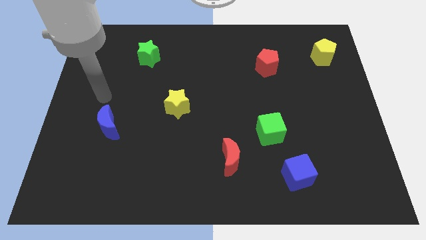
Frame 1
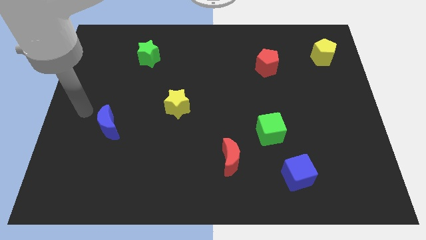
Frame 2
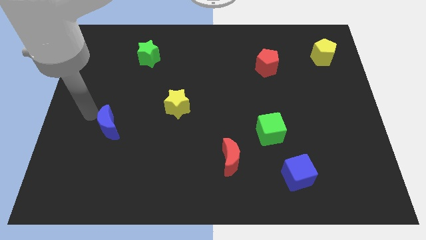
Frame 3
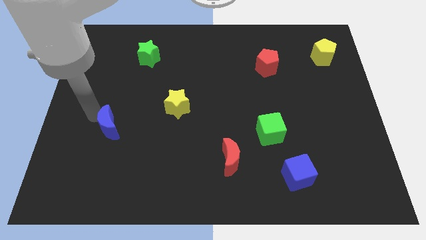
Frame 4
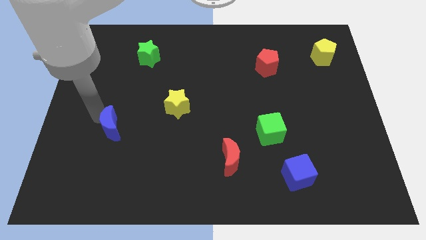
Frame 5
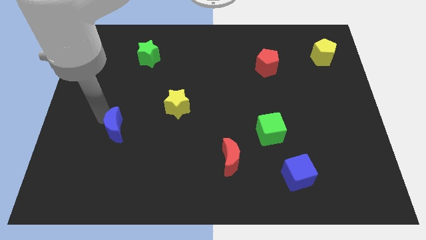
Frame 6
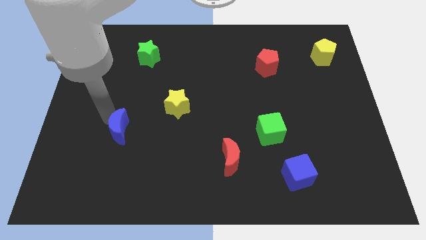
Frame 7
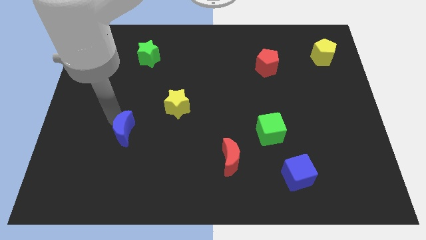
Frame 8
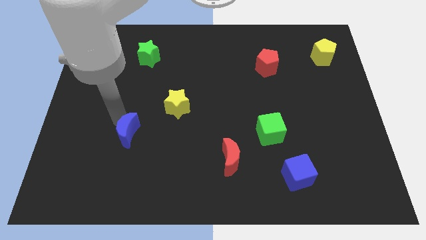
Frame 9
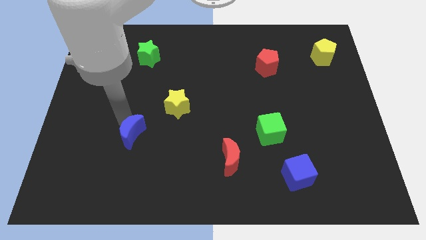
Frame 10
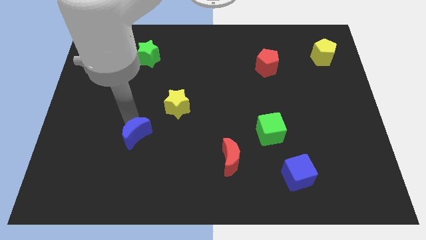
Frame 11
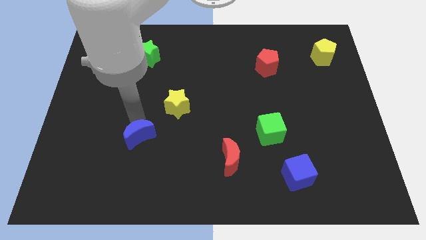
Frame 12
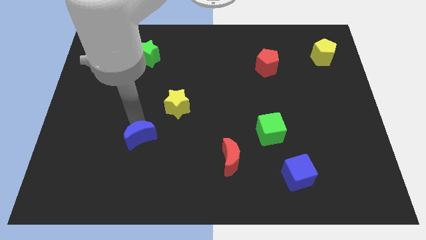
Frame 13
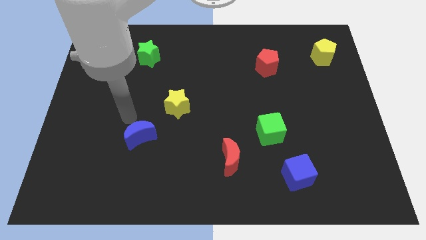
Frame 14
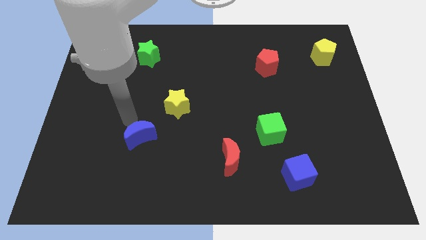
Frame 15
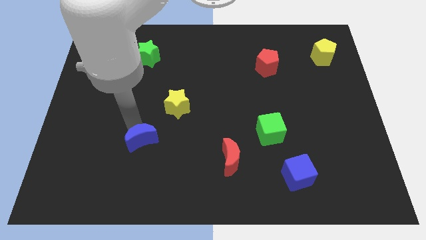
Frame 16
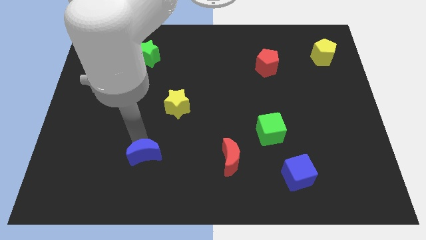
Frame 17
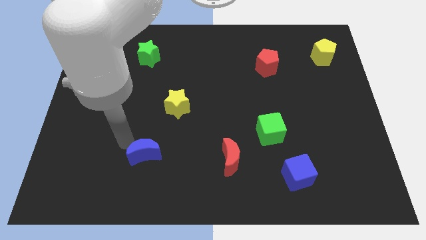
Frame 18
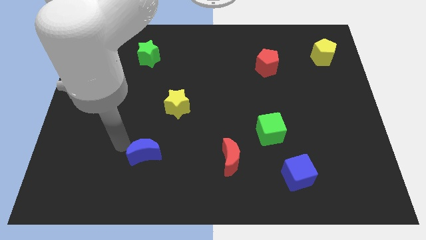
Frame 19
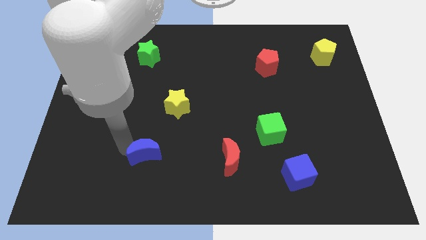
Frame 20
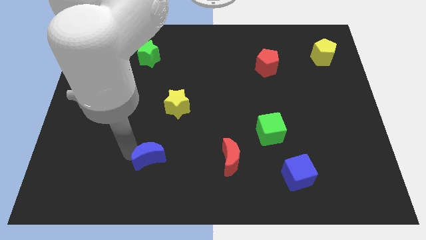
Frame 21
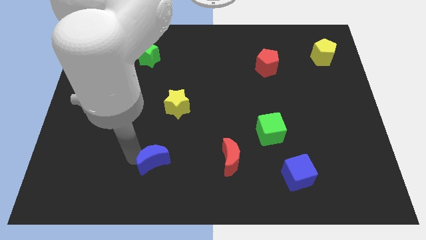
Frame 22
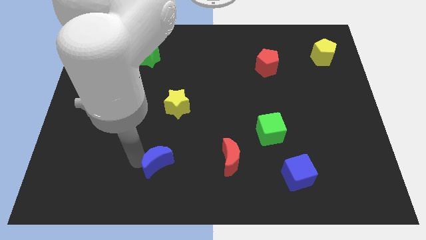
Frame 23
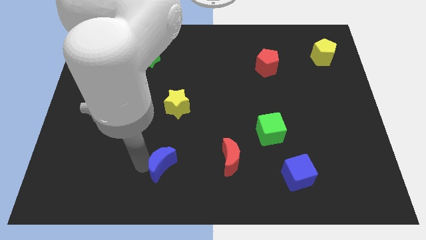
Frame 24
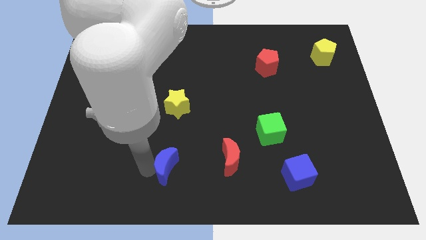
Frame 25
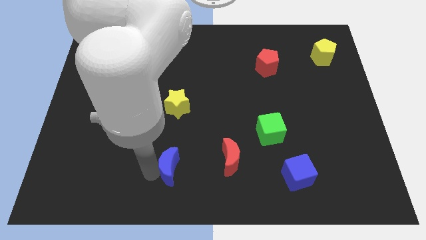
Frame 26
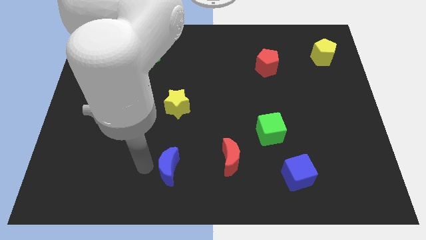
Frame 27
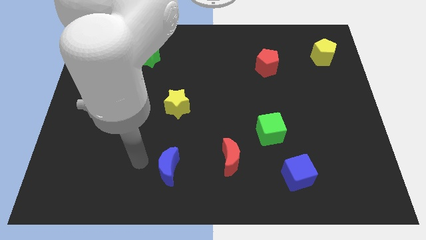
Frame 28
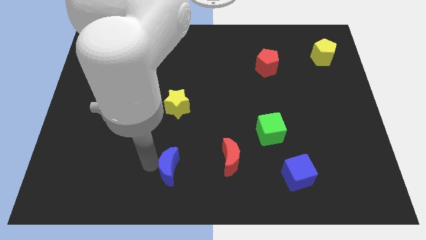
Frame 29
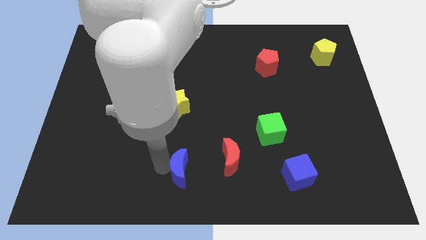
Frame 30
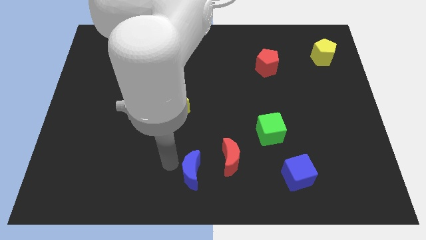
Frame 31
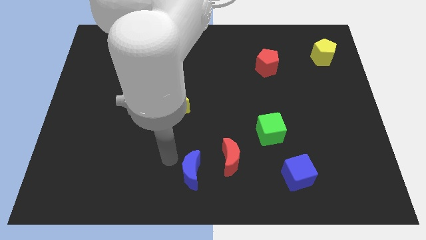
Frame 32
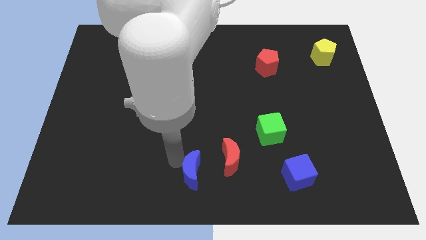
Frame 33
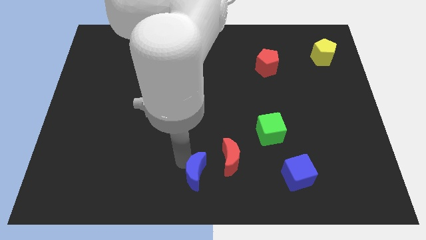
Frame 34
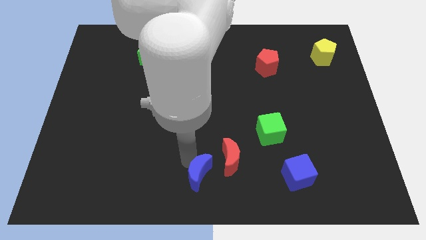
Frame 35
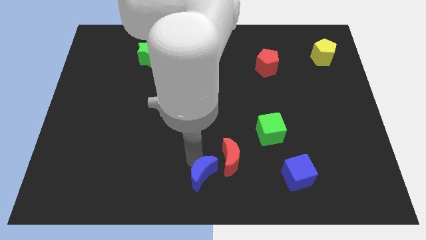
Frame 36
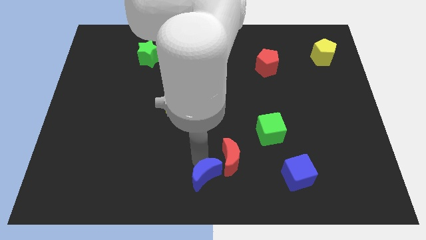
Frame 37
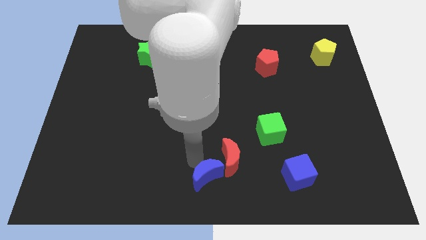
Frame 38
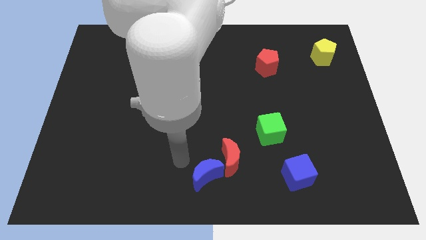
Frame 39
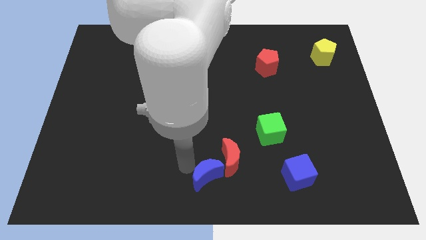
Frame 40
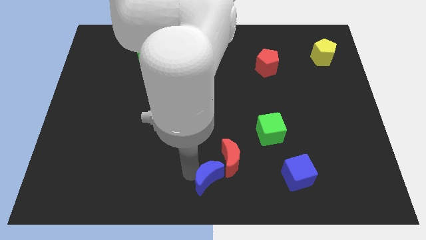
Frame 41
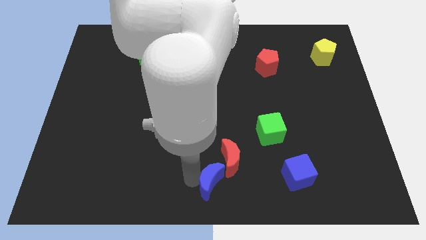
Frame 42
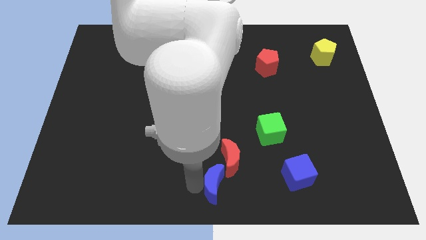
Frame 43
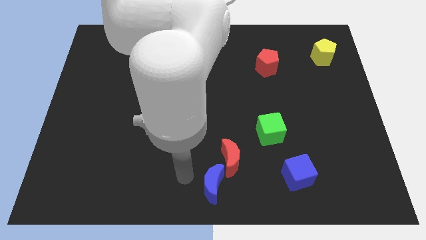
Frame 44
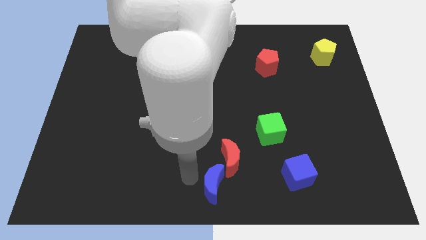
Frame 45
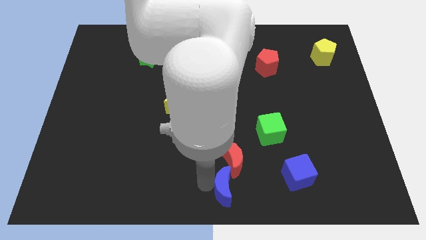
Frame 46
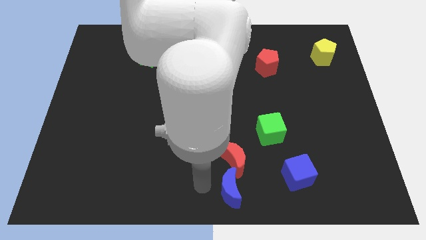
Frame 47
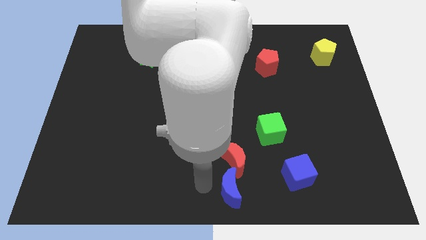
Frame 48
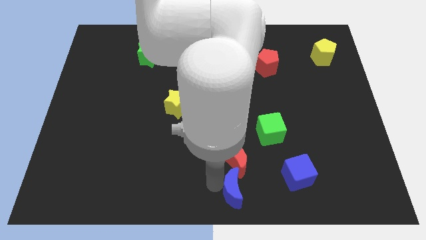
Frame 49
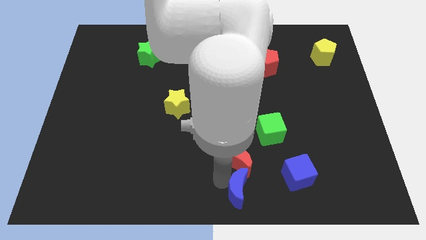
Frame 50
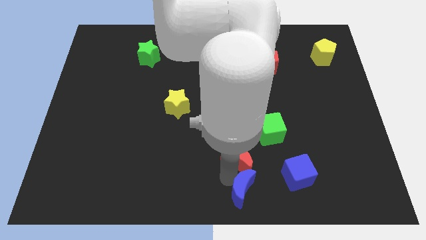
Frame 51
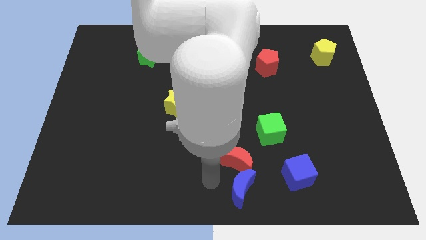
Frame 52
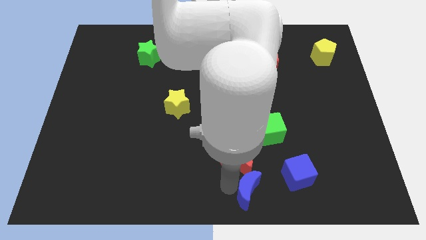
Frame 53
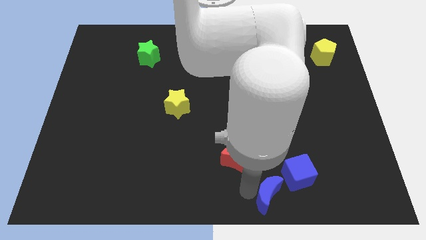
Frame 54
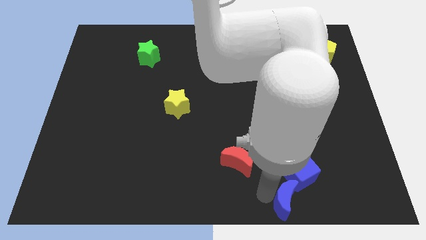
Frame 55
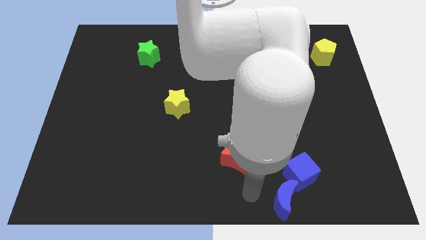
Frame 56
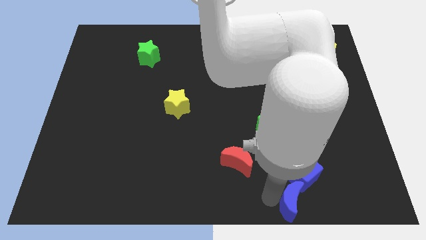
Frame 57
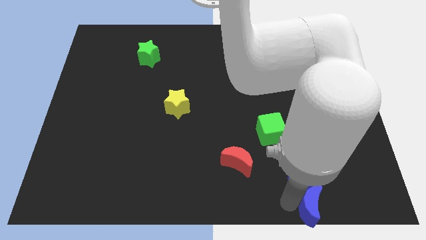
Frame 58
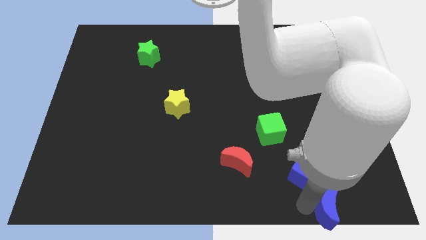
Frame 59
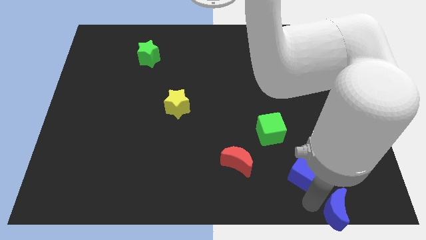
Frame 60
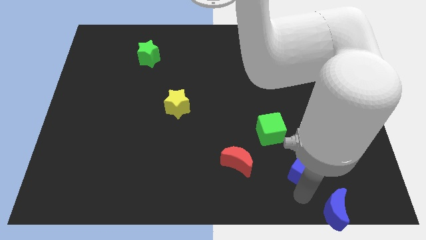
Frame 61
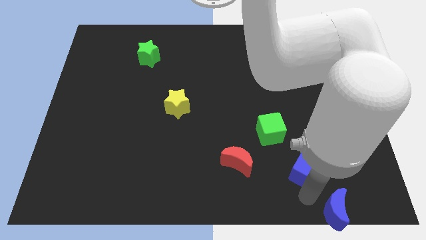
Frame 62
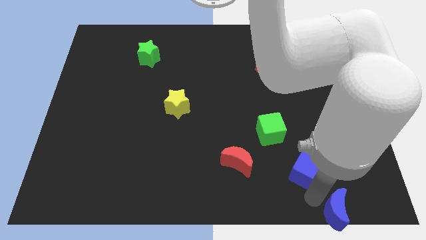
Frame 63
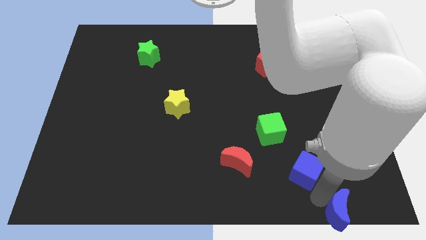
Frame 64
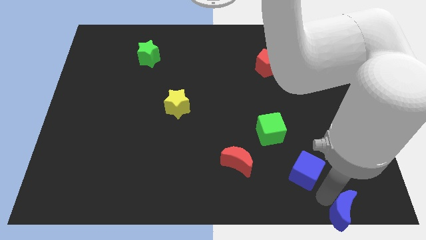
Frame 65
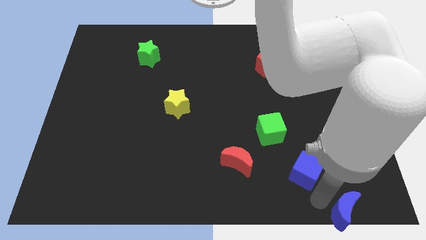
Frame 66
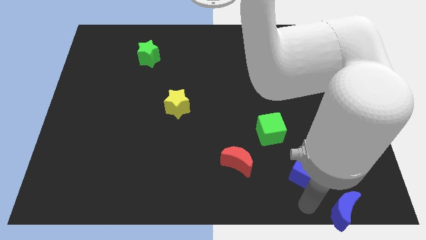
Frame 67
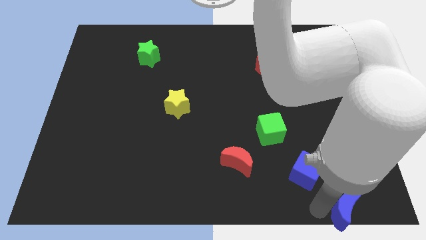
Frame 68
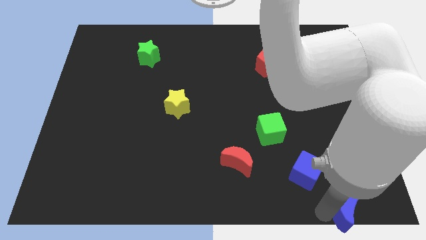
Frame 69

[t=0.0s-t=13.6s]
slide the blue moon to the bottom right of the board
